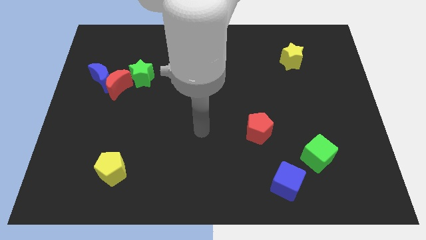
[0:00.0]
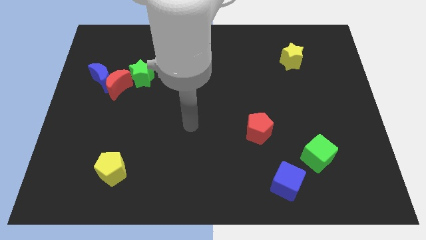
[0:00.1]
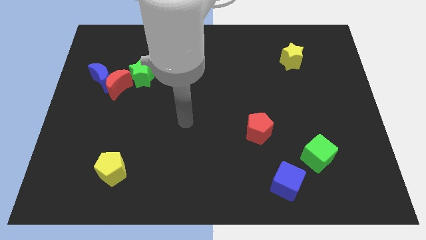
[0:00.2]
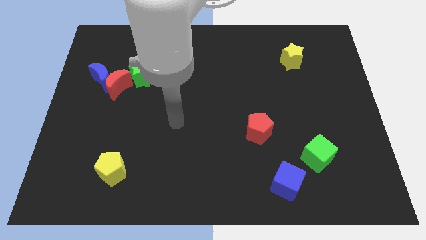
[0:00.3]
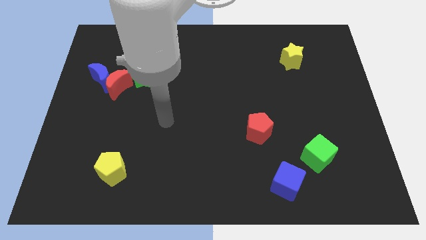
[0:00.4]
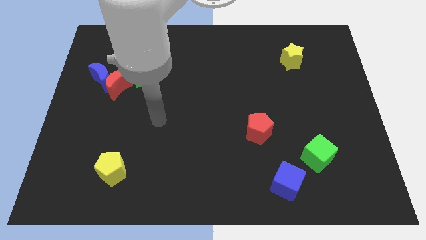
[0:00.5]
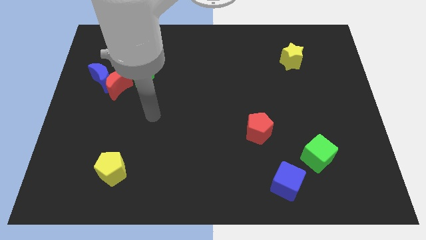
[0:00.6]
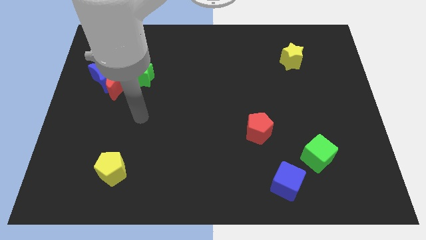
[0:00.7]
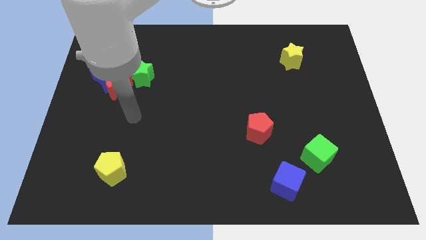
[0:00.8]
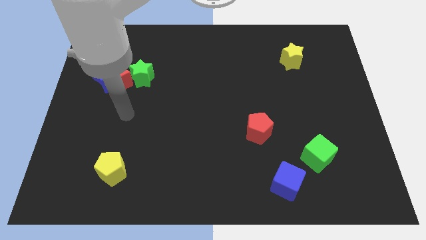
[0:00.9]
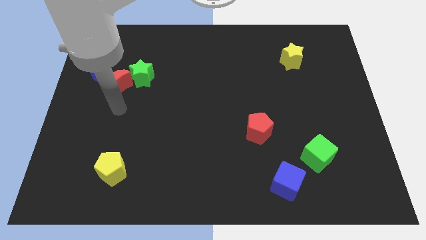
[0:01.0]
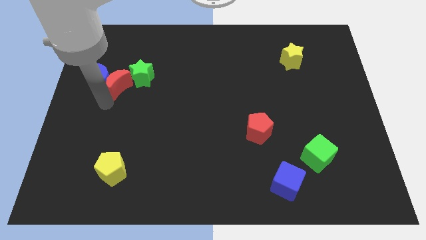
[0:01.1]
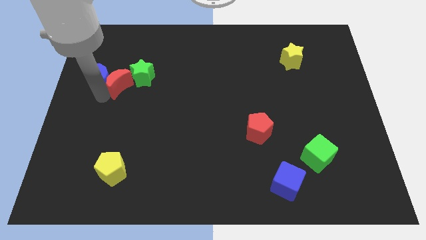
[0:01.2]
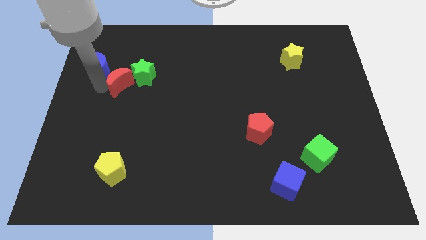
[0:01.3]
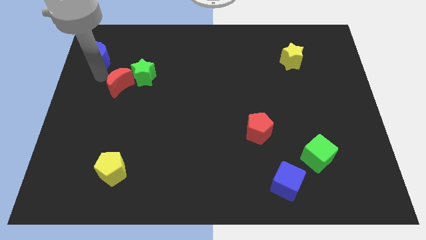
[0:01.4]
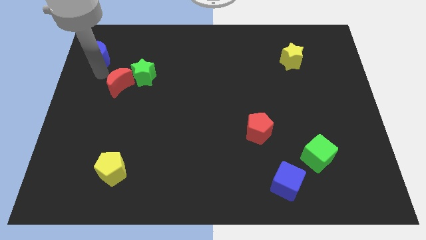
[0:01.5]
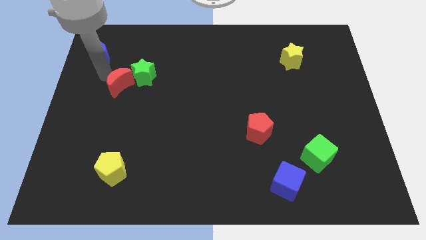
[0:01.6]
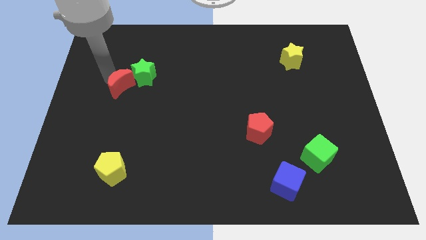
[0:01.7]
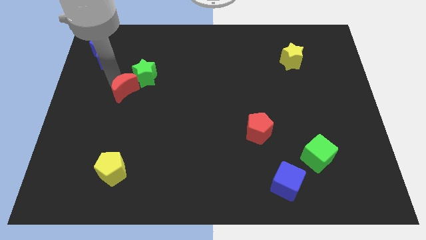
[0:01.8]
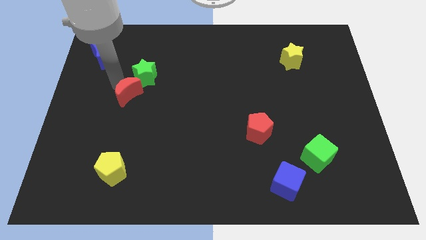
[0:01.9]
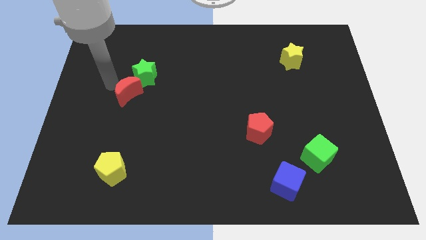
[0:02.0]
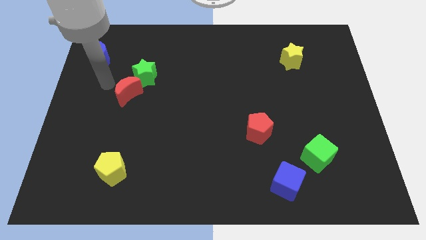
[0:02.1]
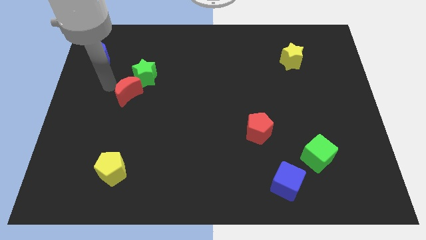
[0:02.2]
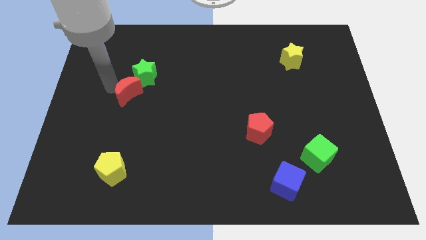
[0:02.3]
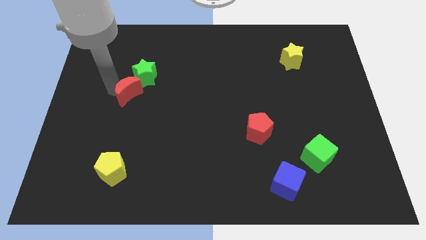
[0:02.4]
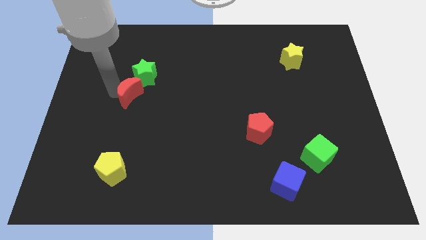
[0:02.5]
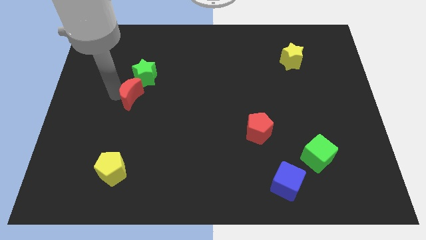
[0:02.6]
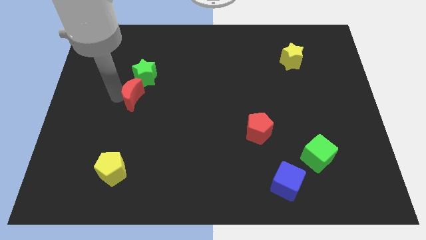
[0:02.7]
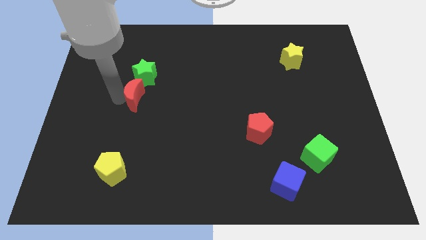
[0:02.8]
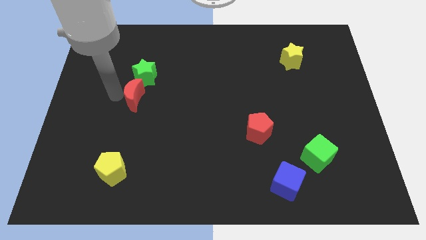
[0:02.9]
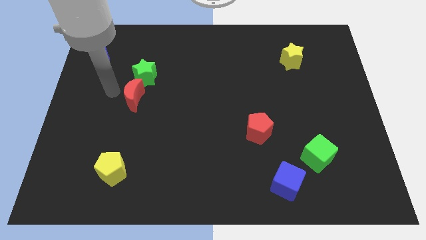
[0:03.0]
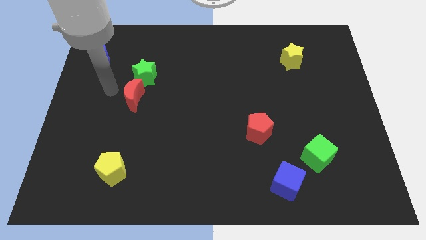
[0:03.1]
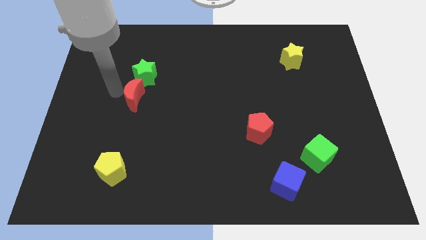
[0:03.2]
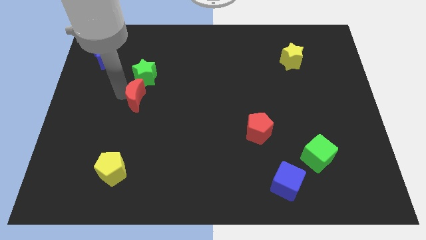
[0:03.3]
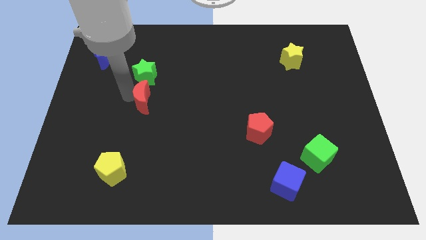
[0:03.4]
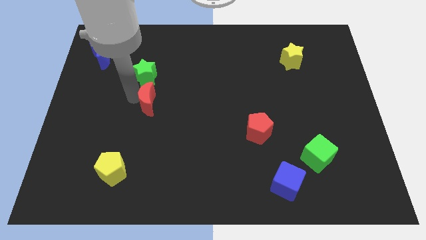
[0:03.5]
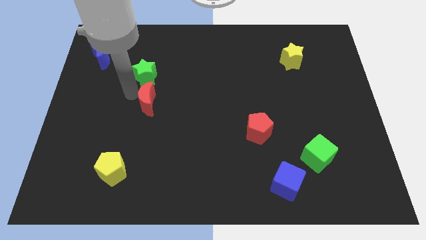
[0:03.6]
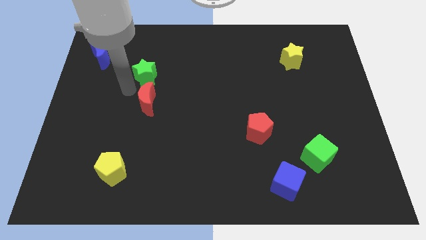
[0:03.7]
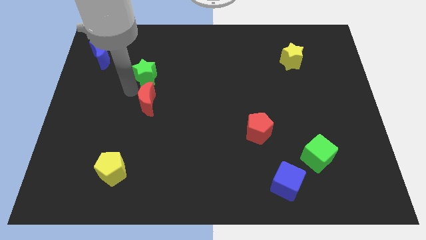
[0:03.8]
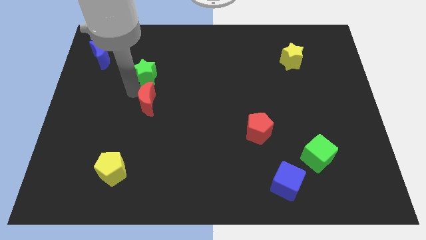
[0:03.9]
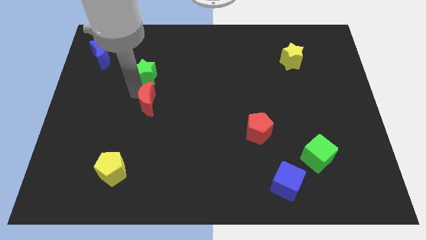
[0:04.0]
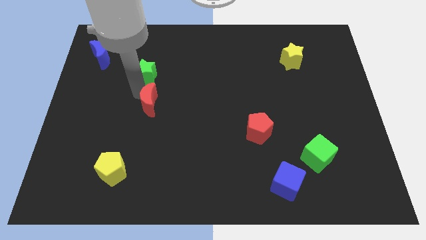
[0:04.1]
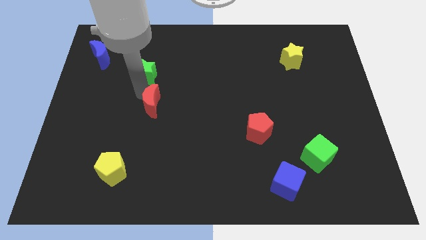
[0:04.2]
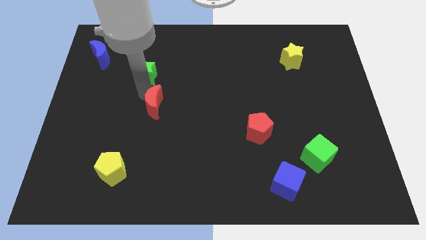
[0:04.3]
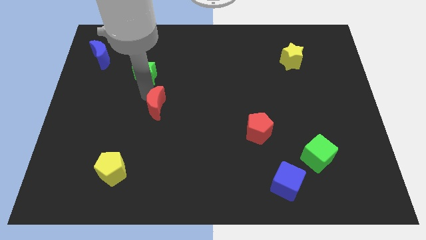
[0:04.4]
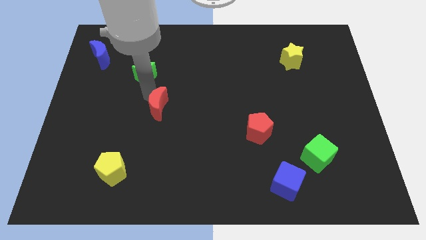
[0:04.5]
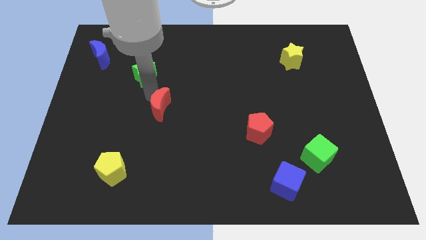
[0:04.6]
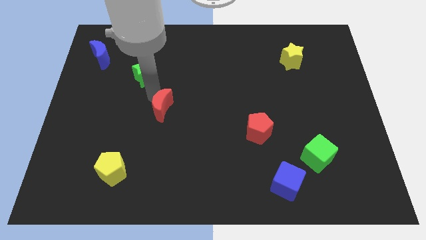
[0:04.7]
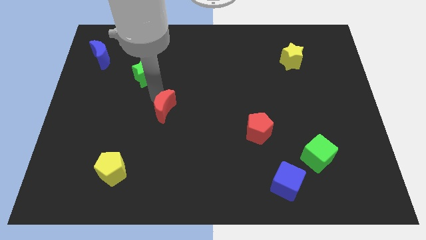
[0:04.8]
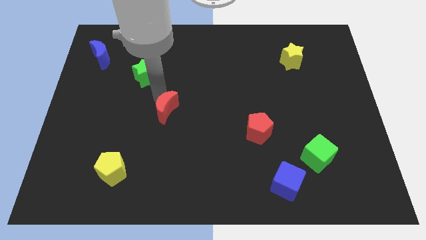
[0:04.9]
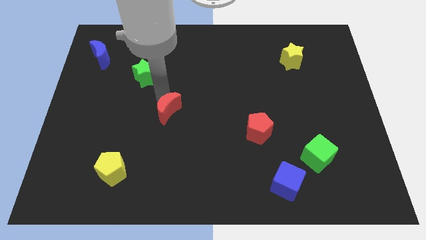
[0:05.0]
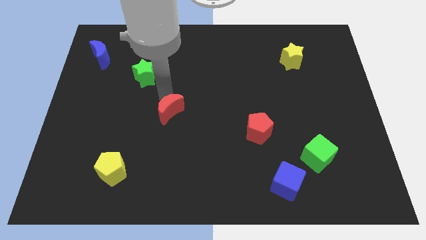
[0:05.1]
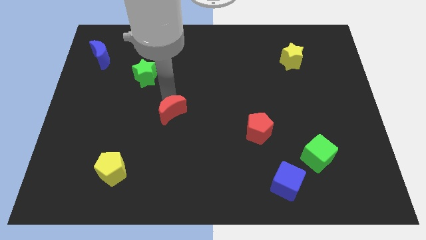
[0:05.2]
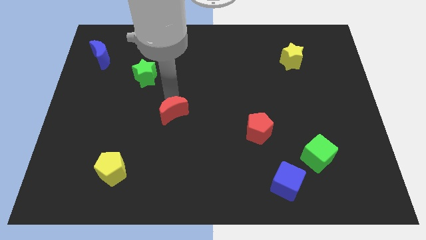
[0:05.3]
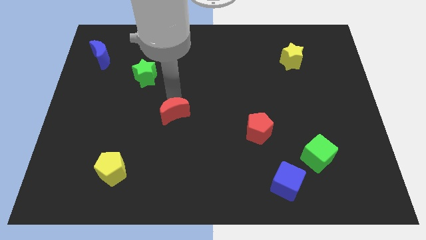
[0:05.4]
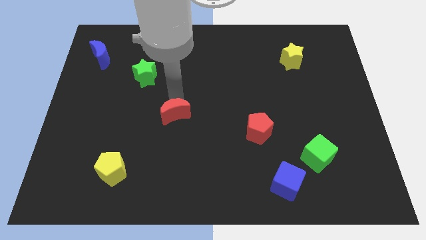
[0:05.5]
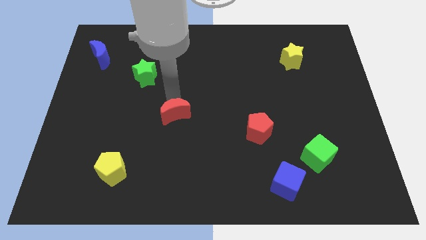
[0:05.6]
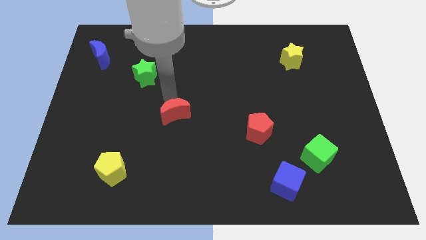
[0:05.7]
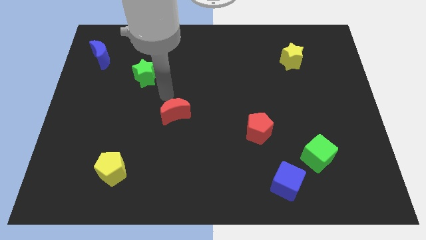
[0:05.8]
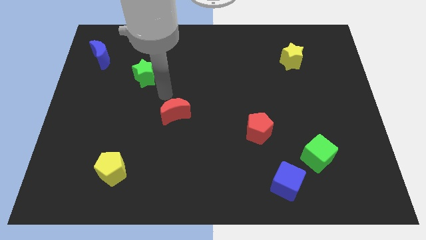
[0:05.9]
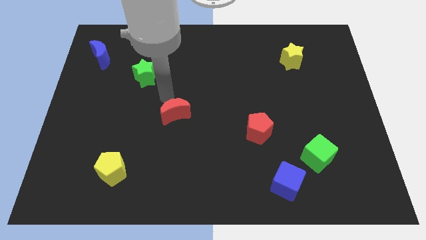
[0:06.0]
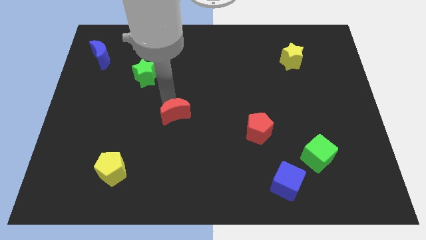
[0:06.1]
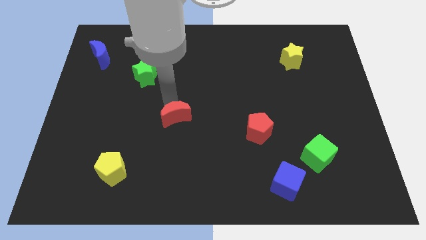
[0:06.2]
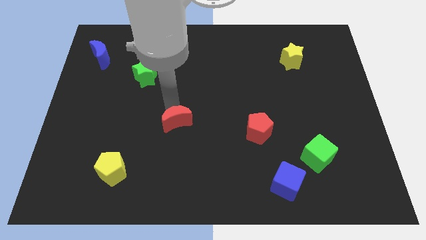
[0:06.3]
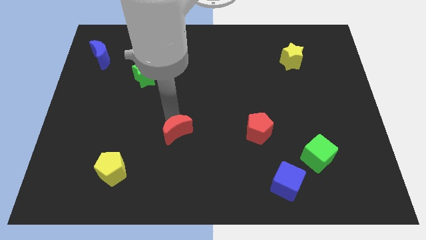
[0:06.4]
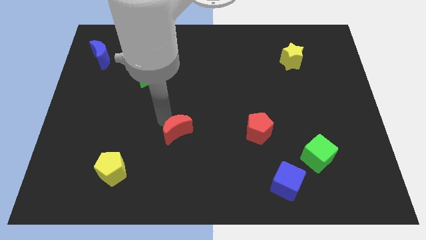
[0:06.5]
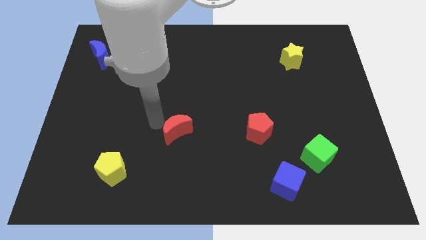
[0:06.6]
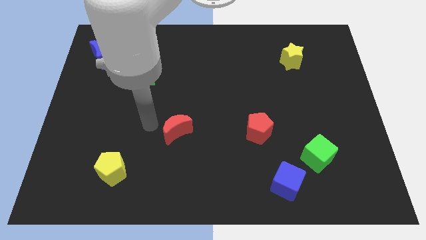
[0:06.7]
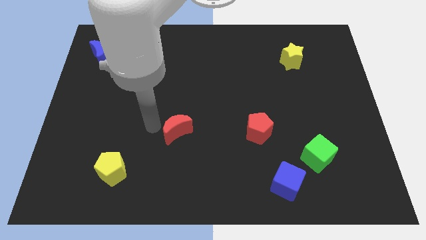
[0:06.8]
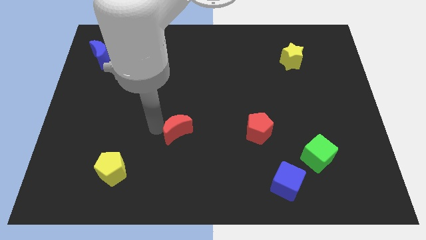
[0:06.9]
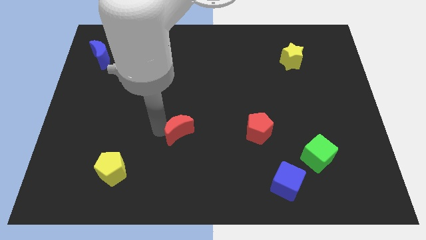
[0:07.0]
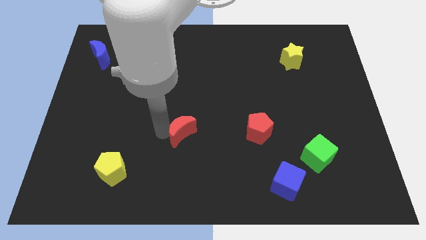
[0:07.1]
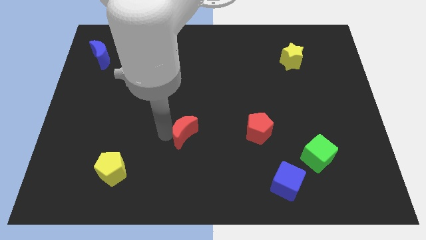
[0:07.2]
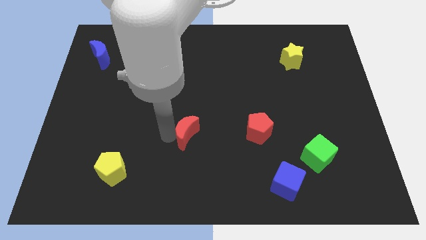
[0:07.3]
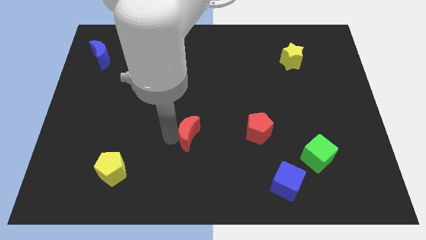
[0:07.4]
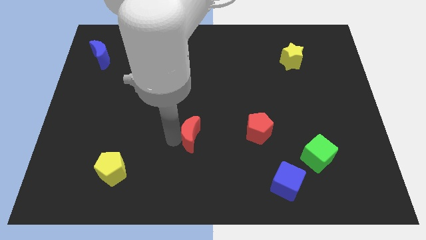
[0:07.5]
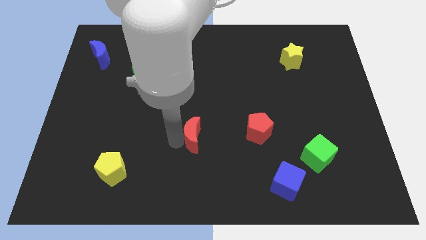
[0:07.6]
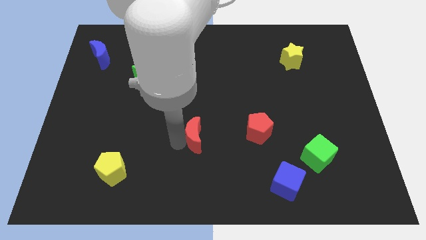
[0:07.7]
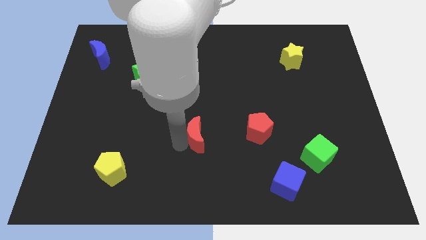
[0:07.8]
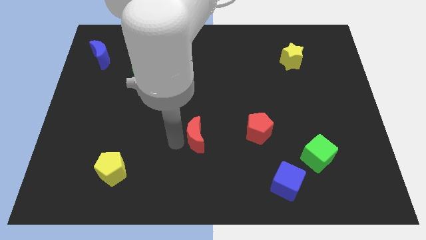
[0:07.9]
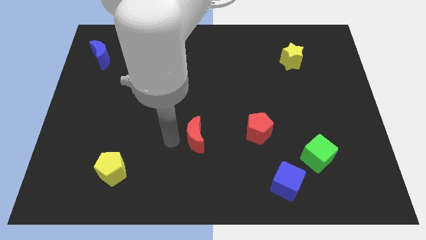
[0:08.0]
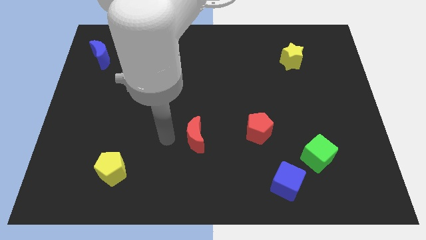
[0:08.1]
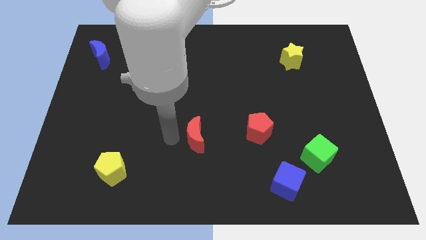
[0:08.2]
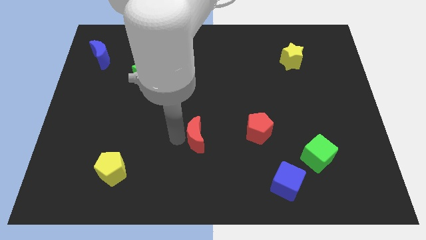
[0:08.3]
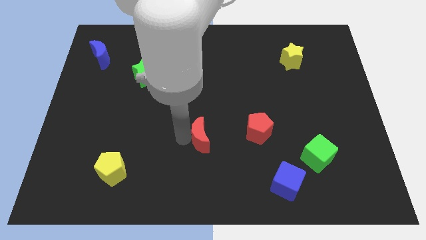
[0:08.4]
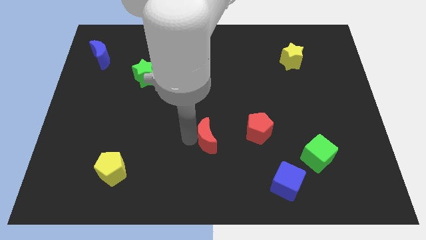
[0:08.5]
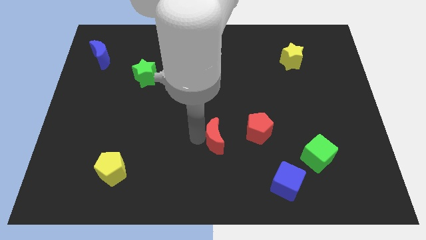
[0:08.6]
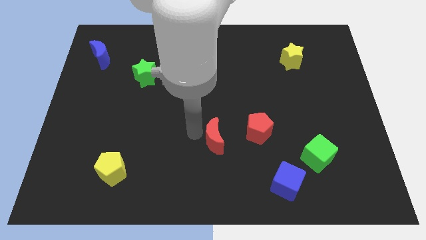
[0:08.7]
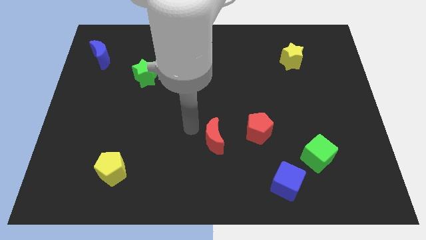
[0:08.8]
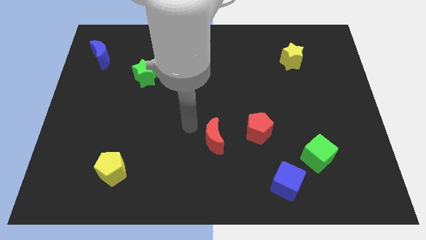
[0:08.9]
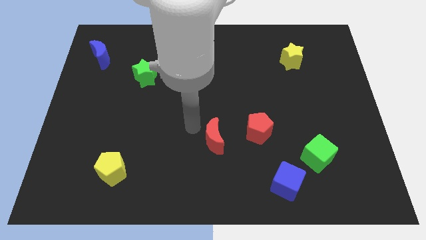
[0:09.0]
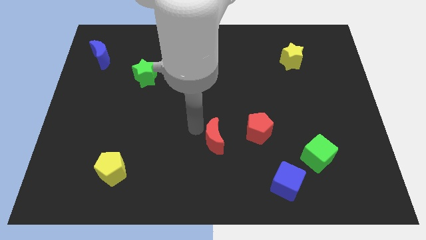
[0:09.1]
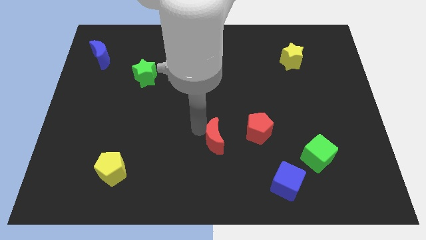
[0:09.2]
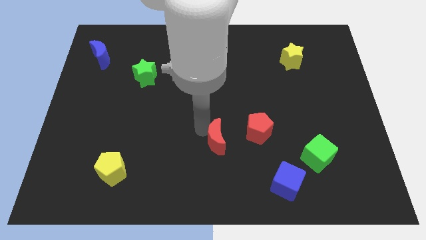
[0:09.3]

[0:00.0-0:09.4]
put the red moon to the bottom left of the red pentagon
